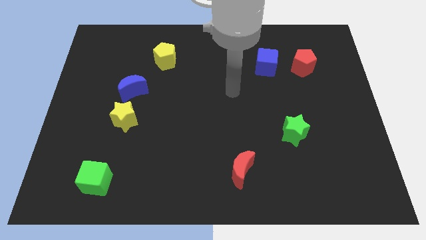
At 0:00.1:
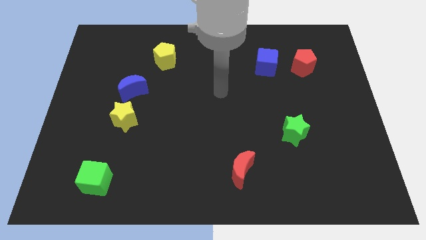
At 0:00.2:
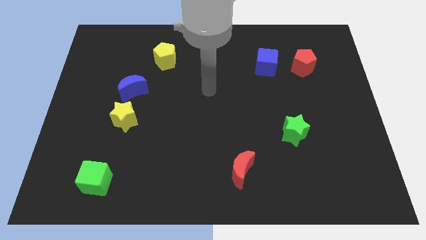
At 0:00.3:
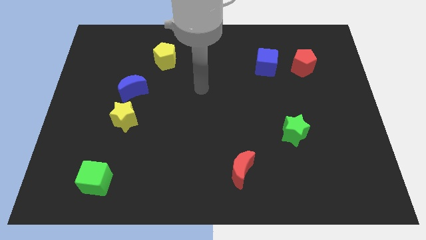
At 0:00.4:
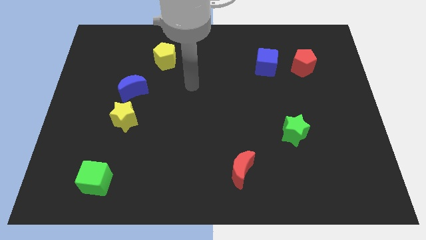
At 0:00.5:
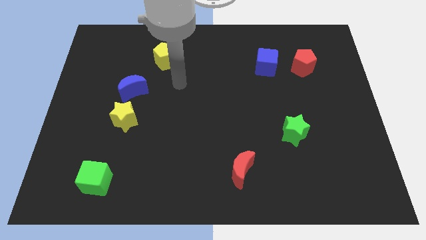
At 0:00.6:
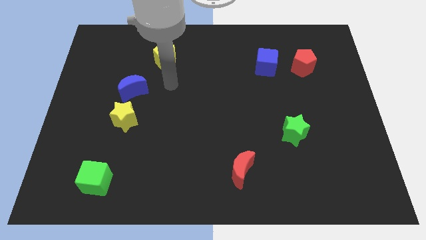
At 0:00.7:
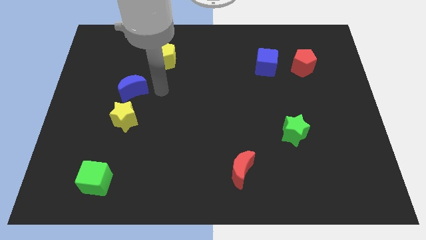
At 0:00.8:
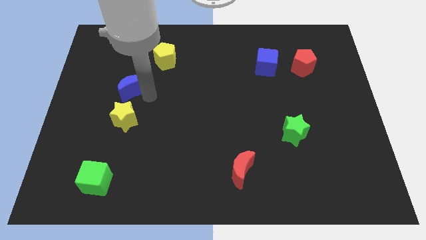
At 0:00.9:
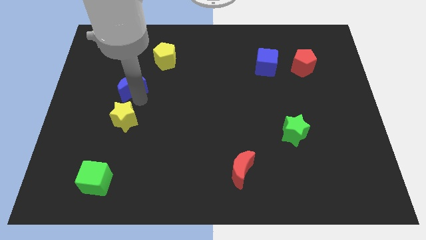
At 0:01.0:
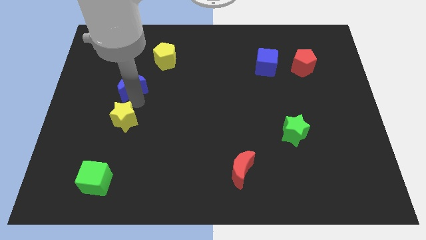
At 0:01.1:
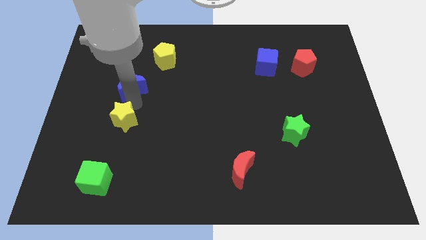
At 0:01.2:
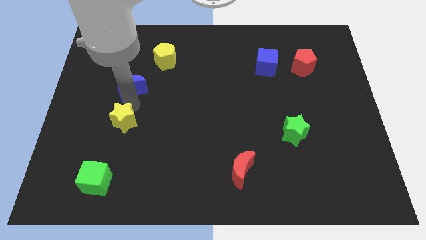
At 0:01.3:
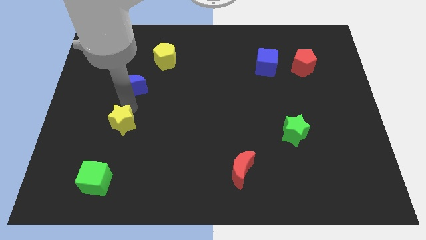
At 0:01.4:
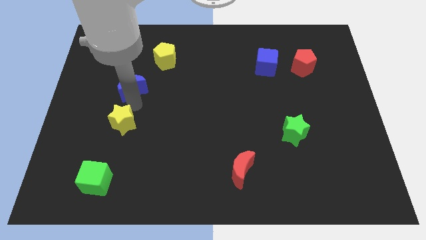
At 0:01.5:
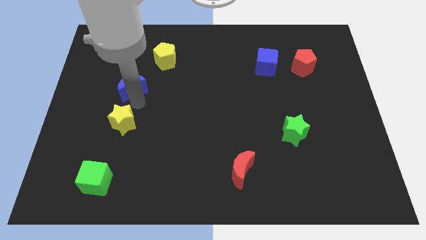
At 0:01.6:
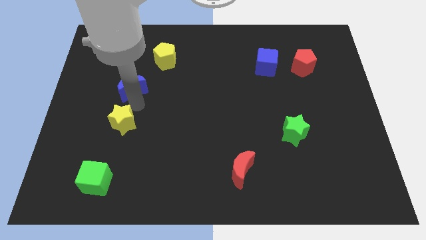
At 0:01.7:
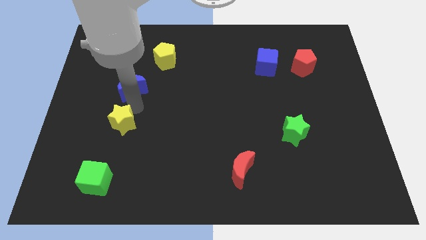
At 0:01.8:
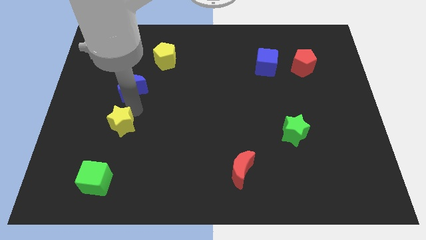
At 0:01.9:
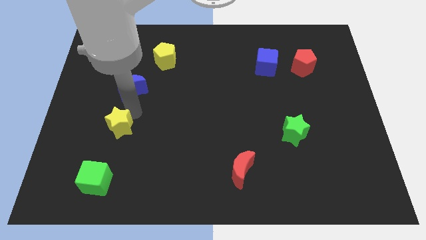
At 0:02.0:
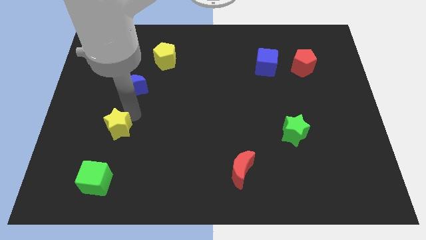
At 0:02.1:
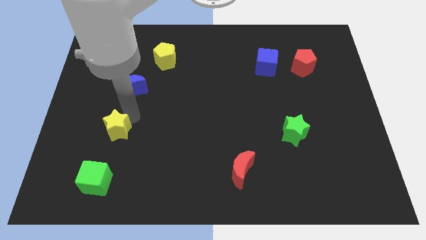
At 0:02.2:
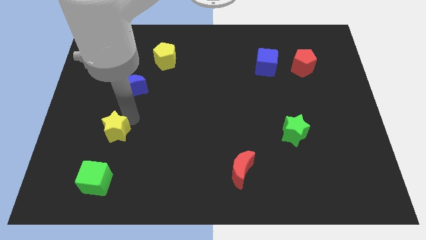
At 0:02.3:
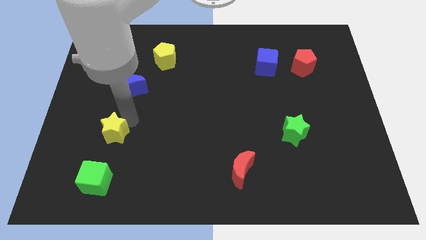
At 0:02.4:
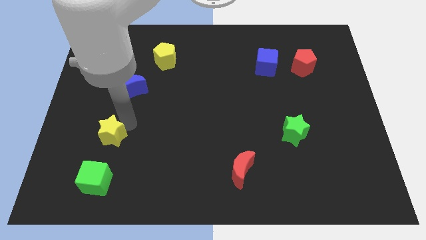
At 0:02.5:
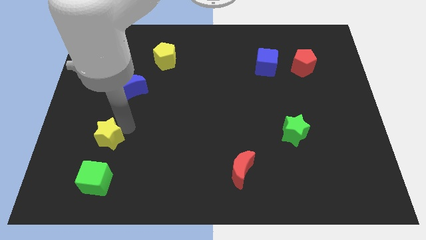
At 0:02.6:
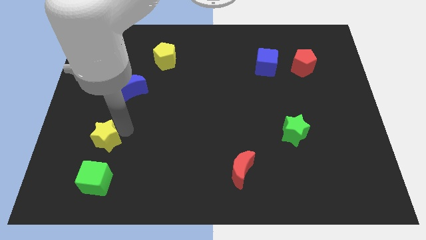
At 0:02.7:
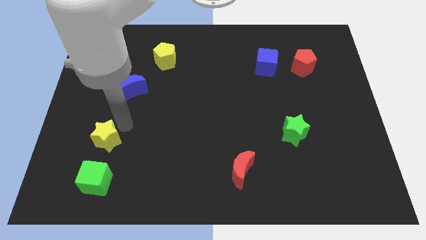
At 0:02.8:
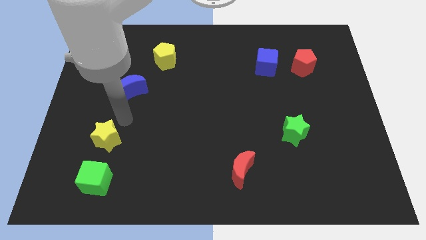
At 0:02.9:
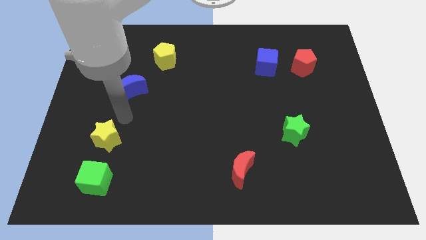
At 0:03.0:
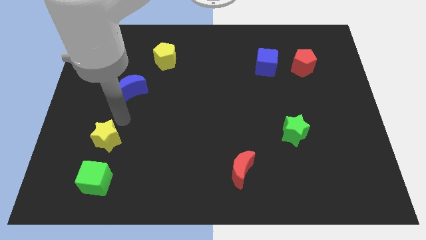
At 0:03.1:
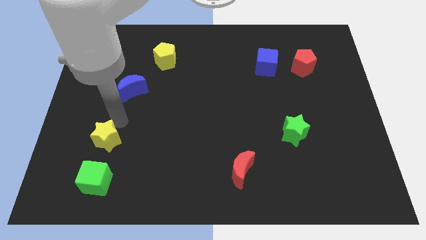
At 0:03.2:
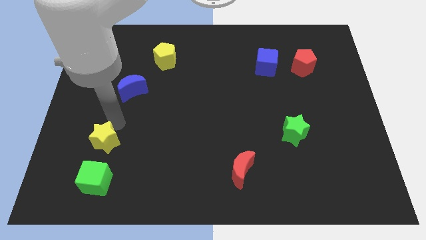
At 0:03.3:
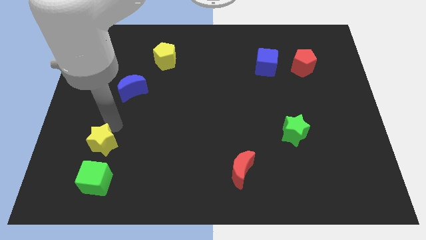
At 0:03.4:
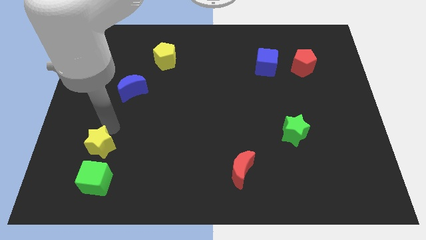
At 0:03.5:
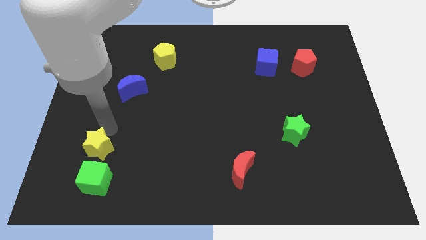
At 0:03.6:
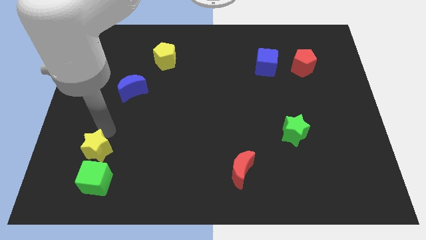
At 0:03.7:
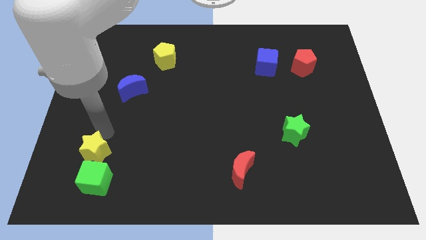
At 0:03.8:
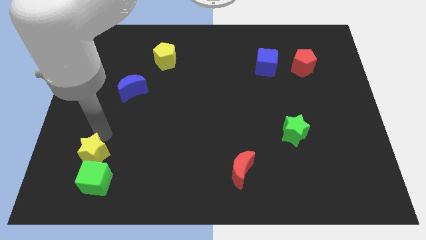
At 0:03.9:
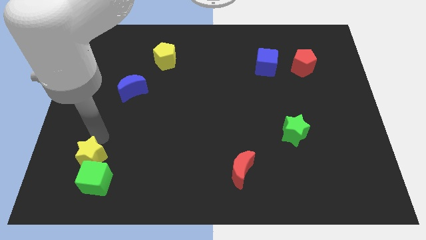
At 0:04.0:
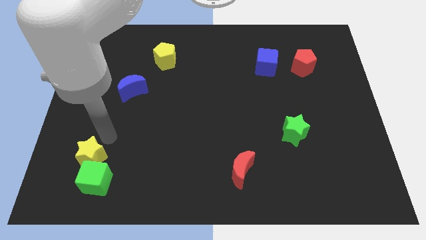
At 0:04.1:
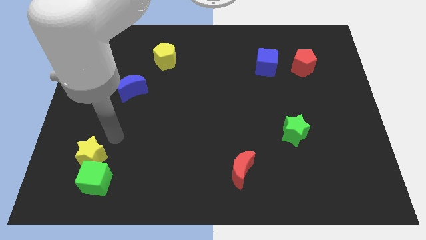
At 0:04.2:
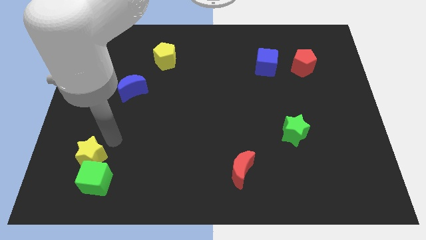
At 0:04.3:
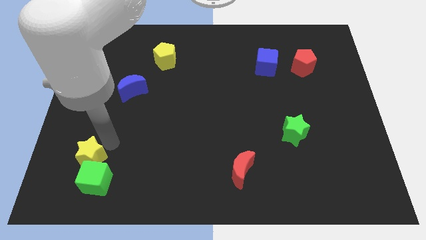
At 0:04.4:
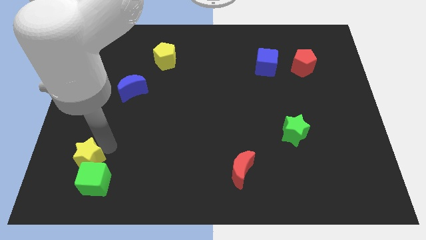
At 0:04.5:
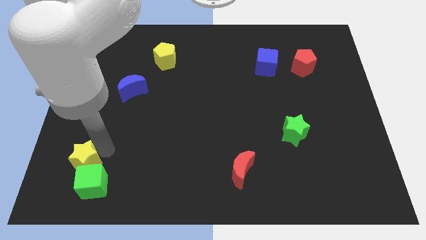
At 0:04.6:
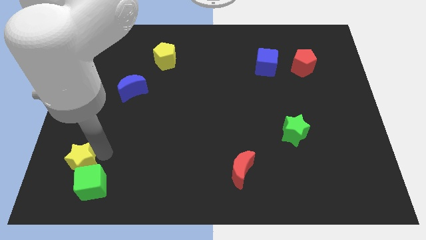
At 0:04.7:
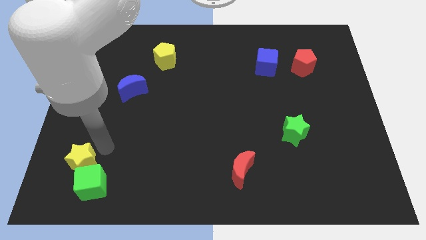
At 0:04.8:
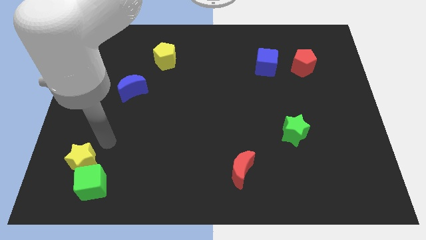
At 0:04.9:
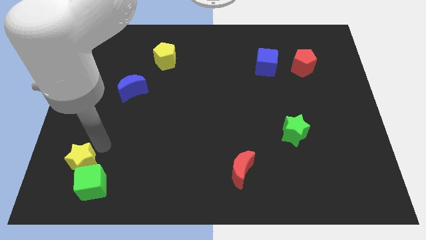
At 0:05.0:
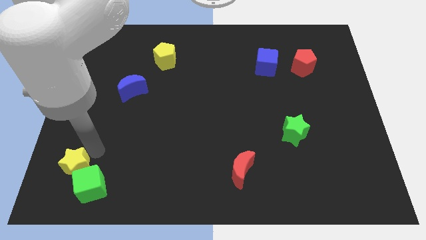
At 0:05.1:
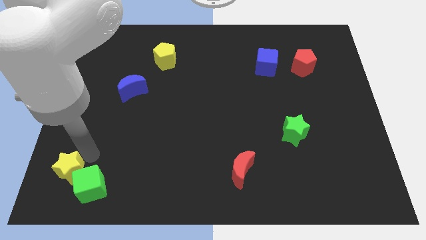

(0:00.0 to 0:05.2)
slide the yellow star to the bottom left of the board

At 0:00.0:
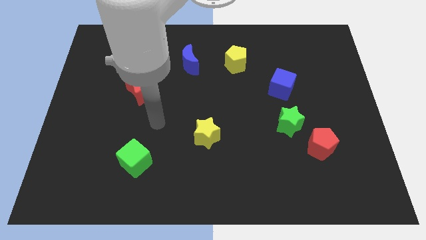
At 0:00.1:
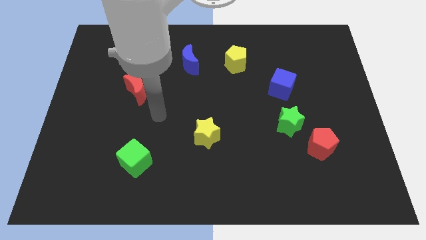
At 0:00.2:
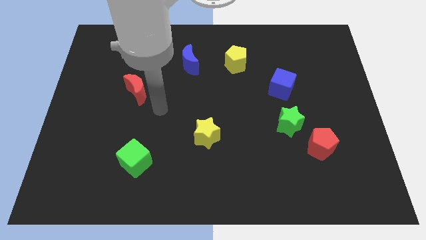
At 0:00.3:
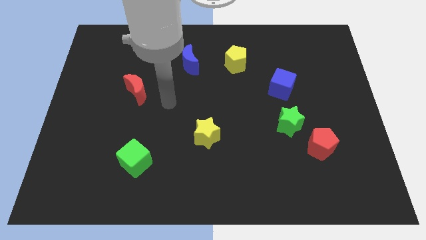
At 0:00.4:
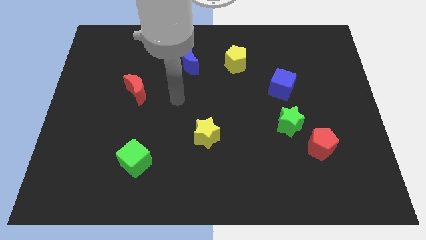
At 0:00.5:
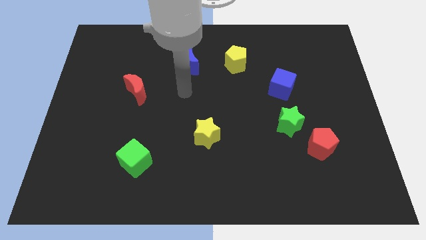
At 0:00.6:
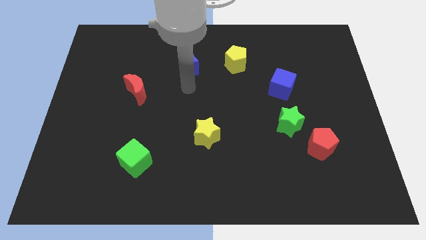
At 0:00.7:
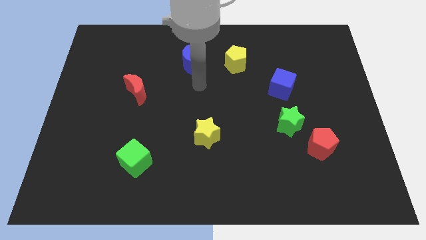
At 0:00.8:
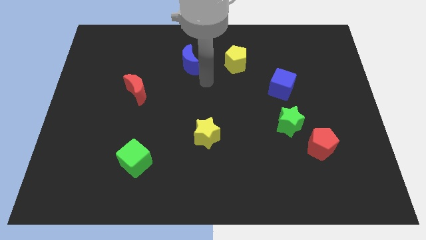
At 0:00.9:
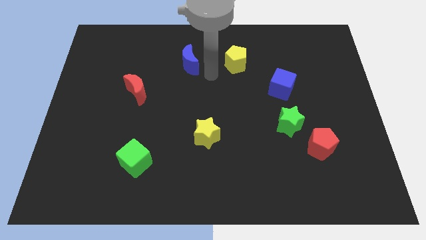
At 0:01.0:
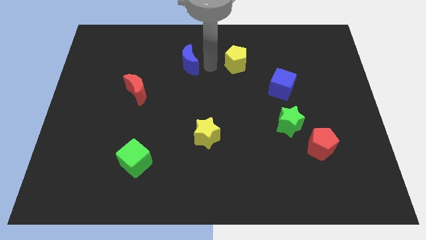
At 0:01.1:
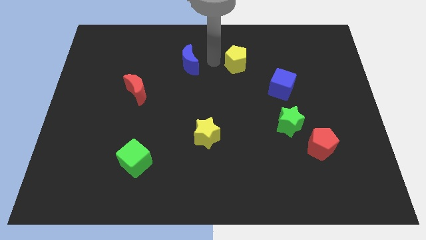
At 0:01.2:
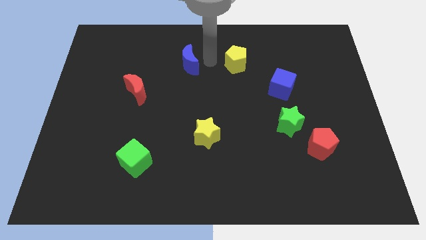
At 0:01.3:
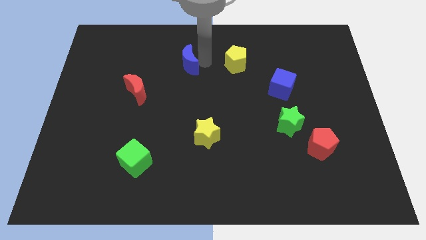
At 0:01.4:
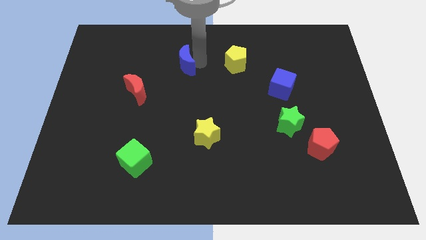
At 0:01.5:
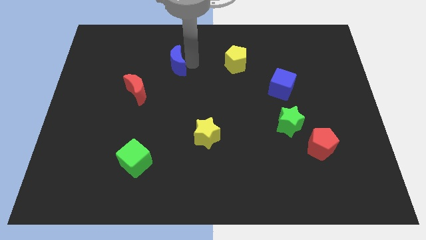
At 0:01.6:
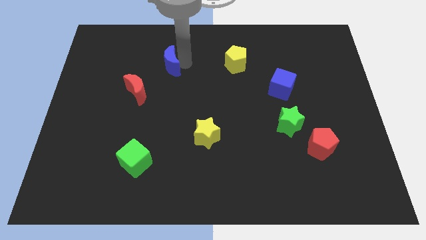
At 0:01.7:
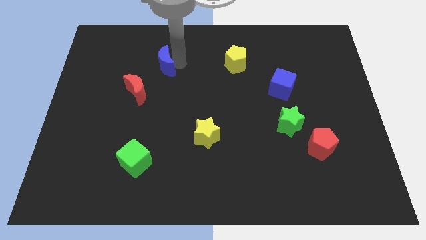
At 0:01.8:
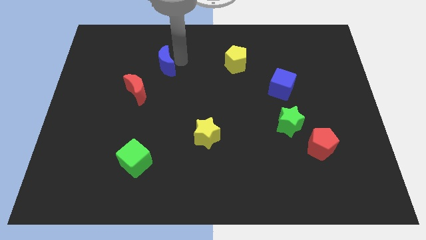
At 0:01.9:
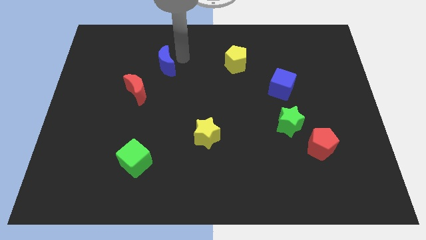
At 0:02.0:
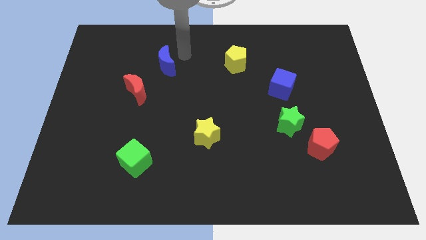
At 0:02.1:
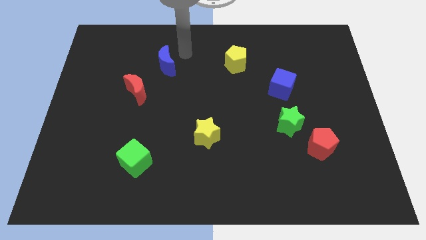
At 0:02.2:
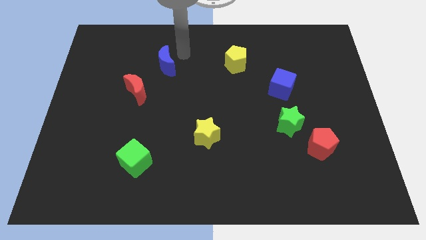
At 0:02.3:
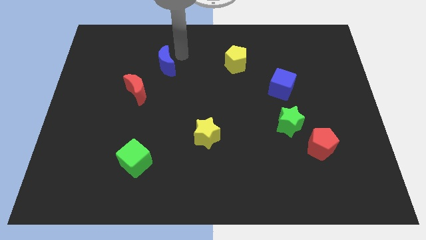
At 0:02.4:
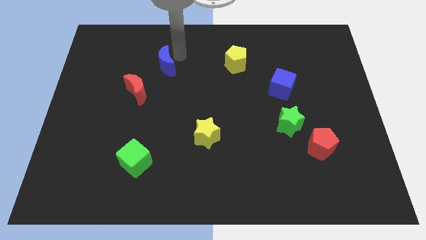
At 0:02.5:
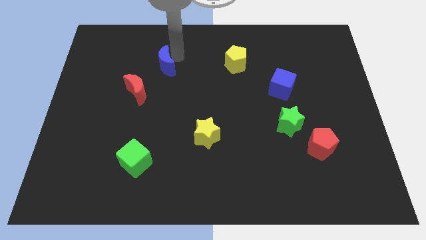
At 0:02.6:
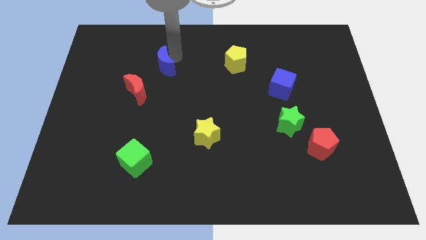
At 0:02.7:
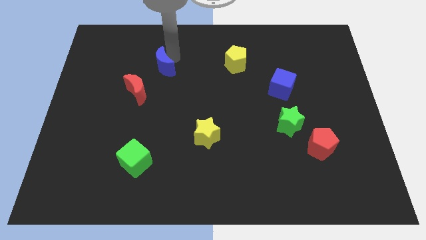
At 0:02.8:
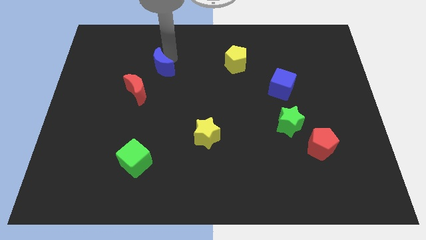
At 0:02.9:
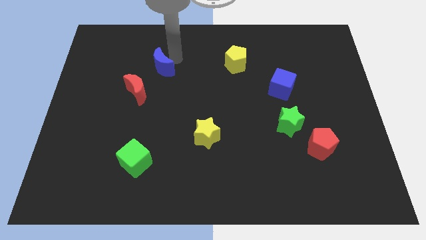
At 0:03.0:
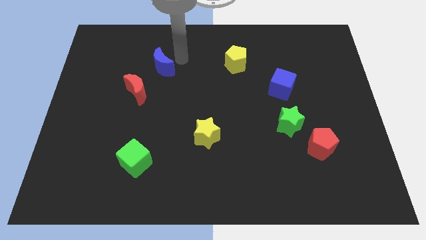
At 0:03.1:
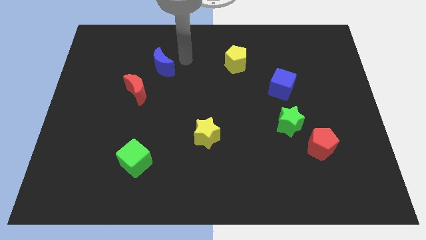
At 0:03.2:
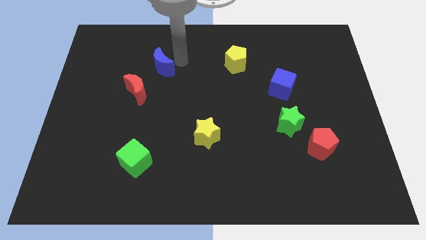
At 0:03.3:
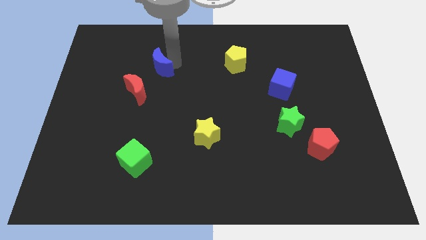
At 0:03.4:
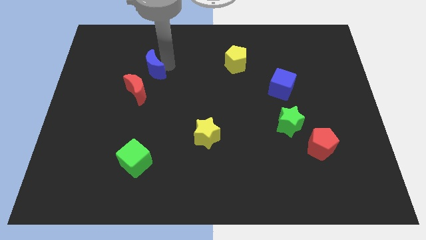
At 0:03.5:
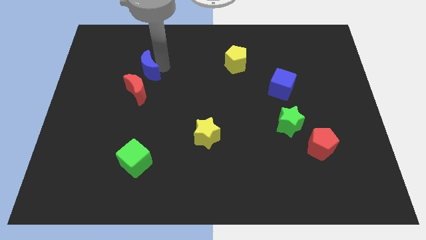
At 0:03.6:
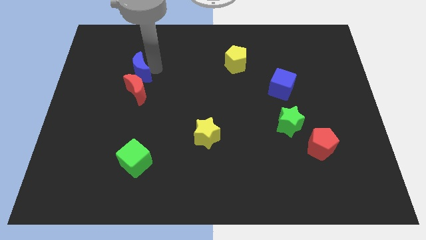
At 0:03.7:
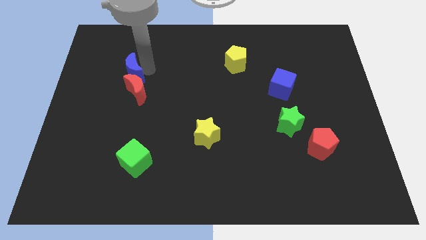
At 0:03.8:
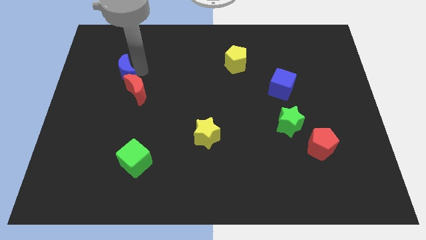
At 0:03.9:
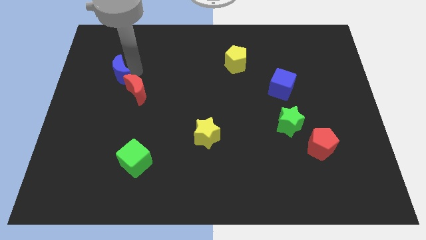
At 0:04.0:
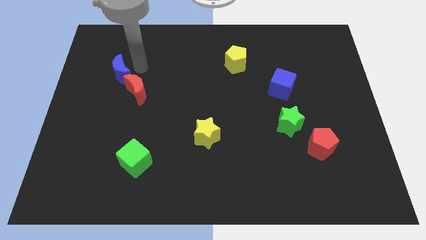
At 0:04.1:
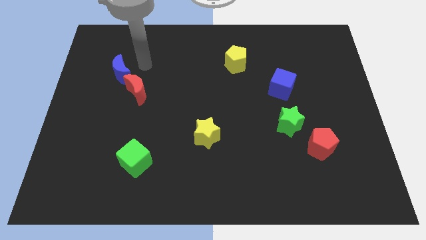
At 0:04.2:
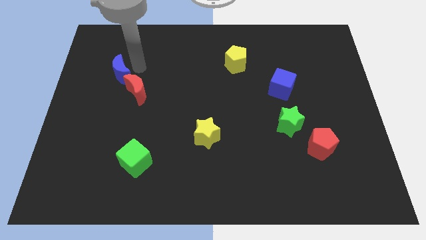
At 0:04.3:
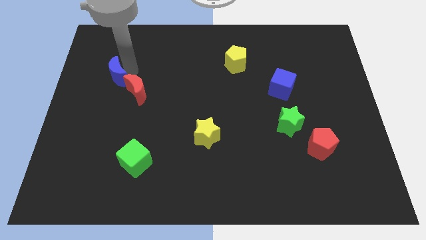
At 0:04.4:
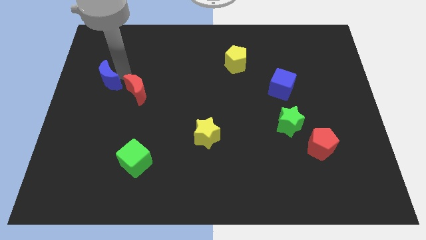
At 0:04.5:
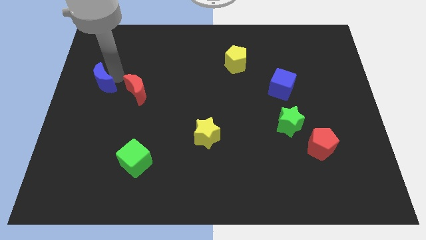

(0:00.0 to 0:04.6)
slide the blue moon to the center left
